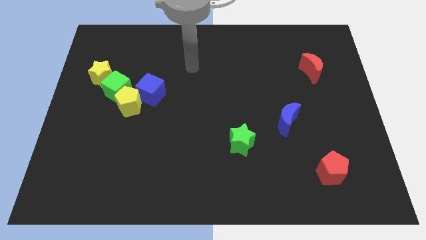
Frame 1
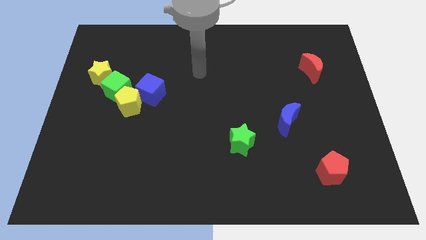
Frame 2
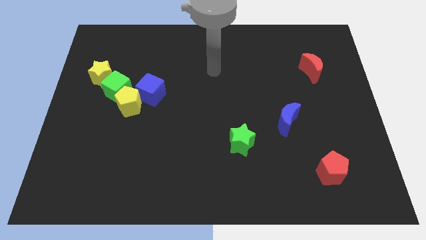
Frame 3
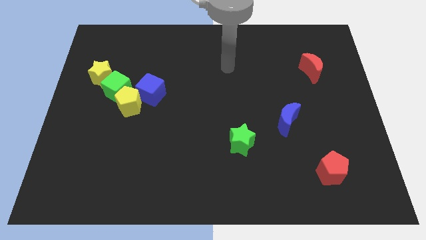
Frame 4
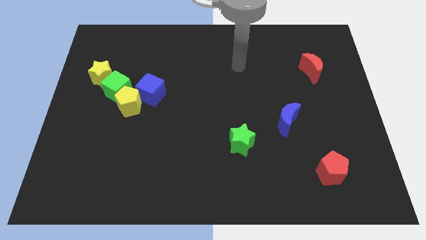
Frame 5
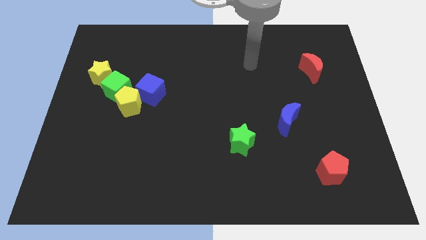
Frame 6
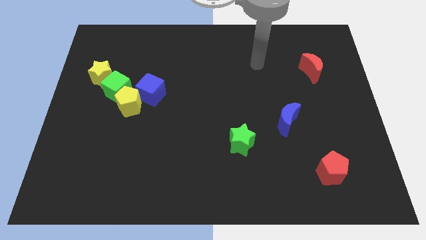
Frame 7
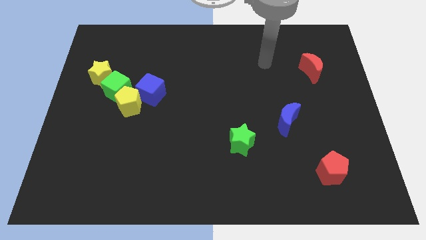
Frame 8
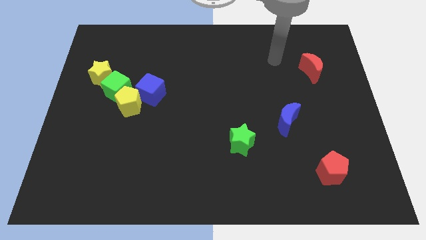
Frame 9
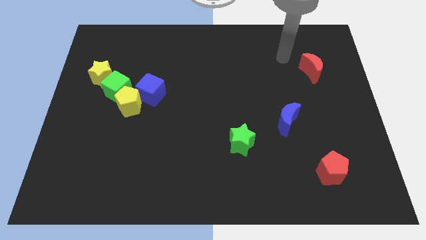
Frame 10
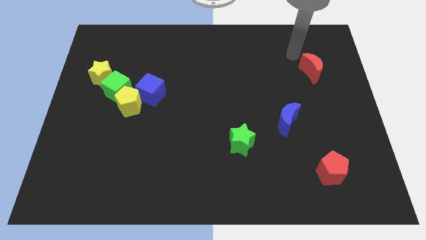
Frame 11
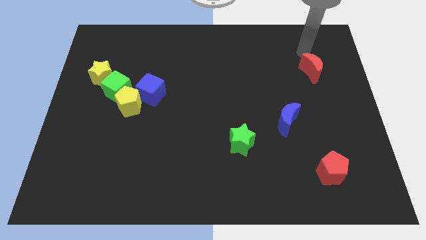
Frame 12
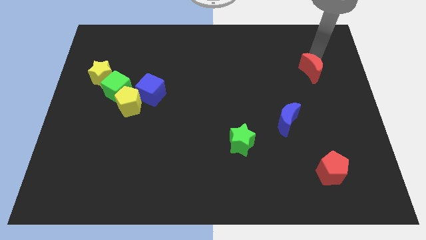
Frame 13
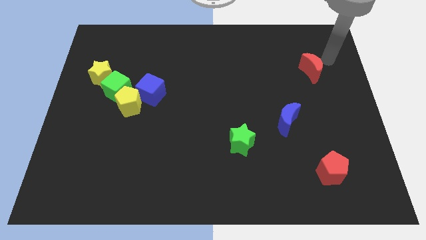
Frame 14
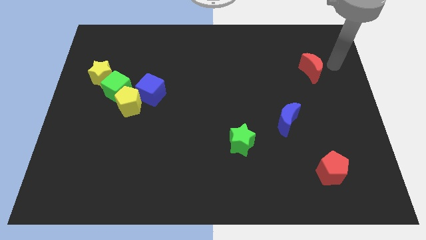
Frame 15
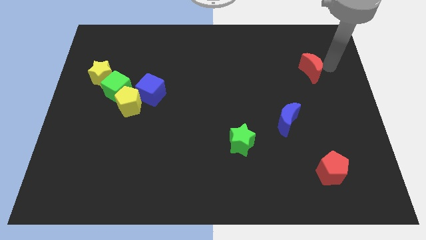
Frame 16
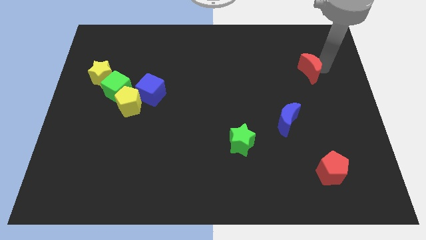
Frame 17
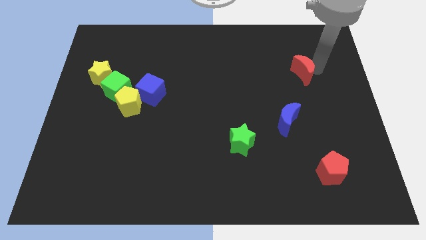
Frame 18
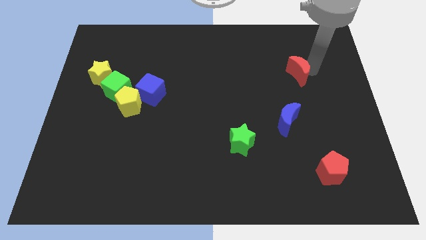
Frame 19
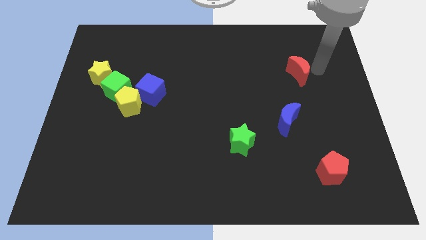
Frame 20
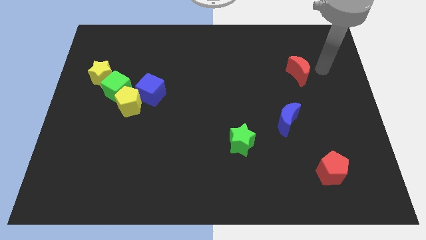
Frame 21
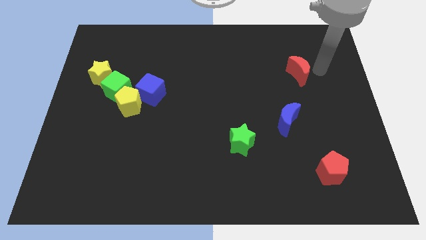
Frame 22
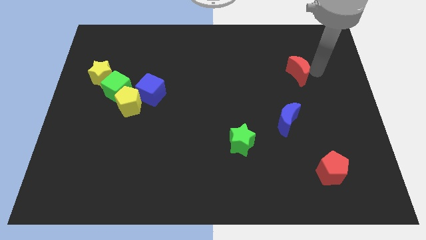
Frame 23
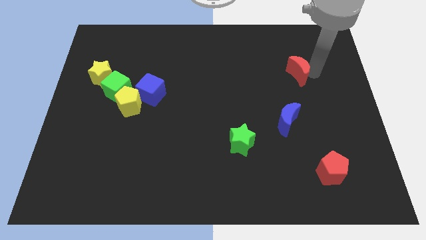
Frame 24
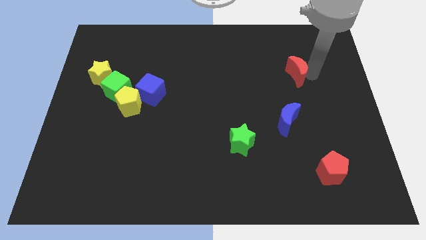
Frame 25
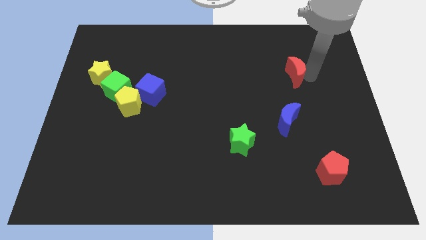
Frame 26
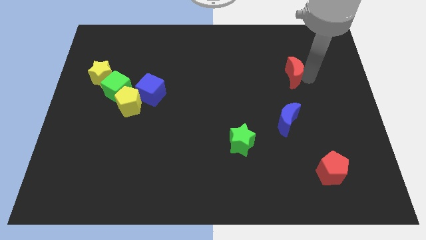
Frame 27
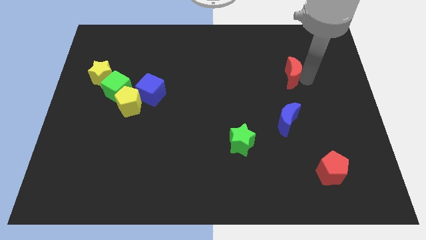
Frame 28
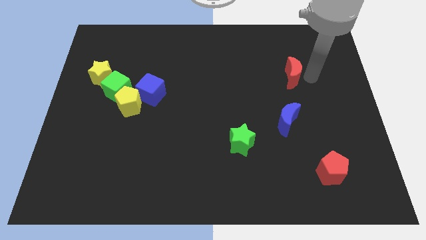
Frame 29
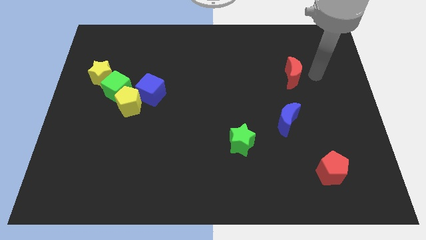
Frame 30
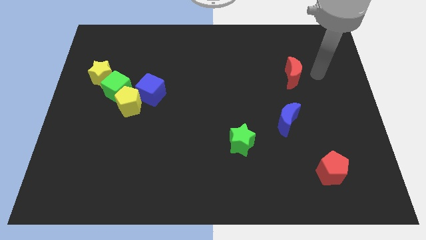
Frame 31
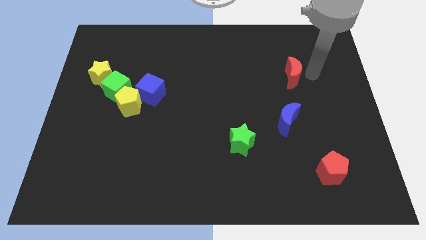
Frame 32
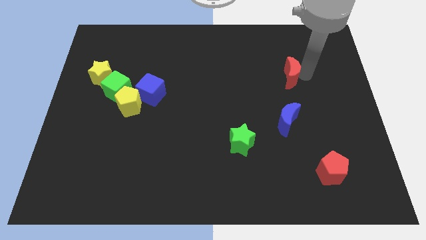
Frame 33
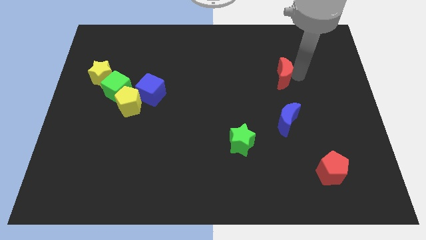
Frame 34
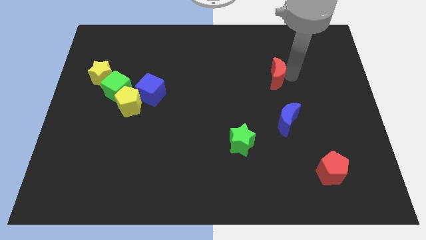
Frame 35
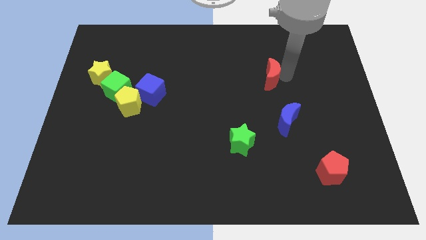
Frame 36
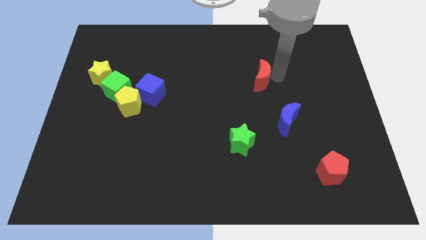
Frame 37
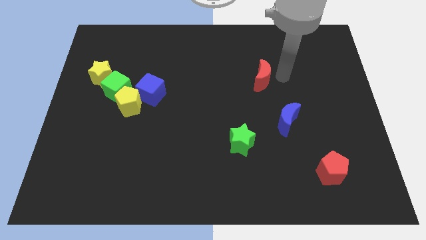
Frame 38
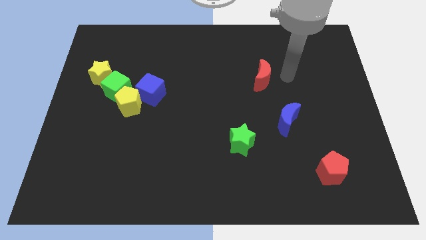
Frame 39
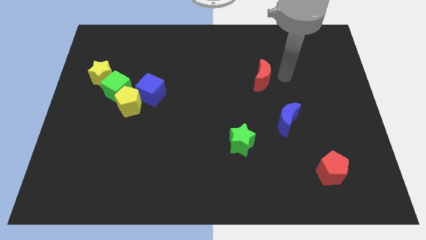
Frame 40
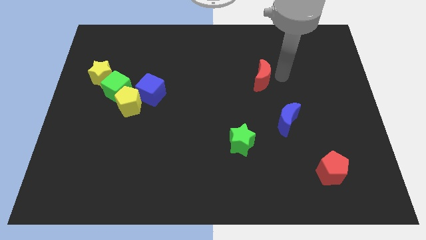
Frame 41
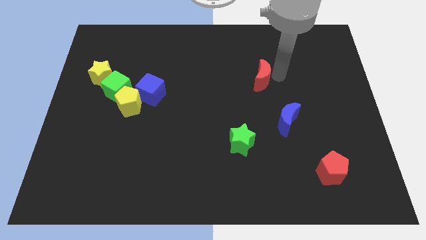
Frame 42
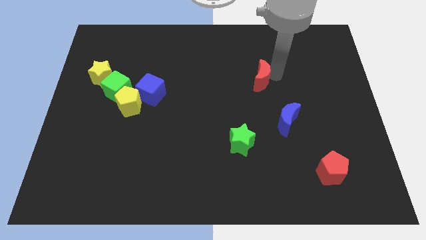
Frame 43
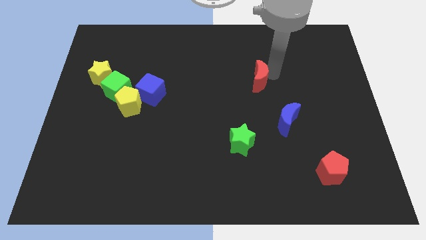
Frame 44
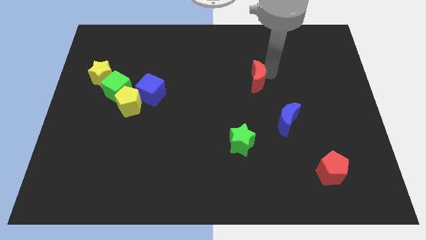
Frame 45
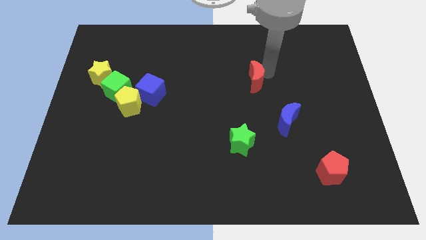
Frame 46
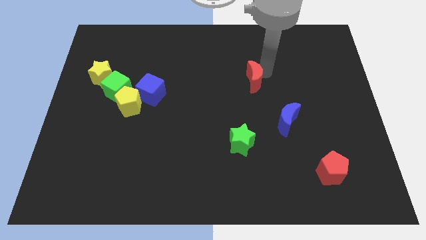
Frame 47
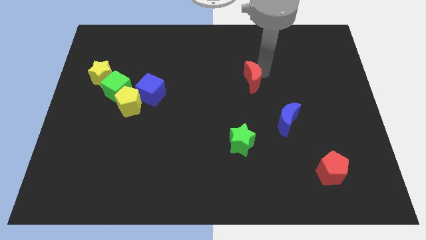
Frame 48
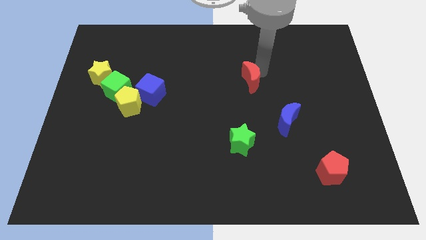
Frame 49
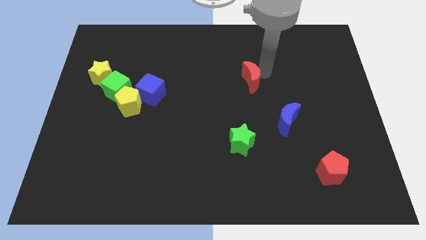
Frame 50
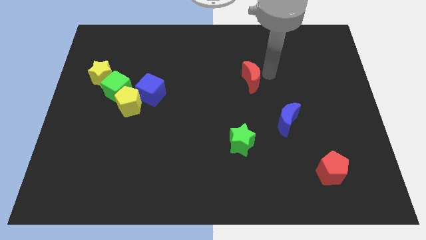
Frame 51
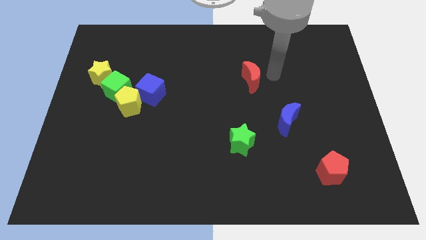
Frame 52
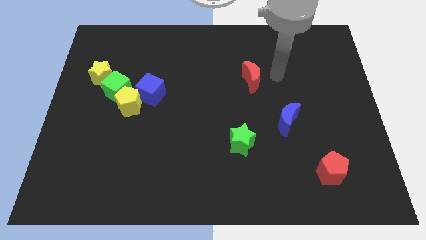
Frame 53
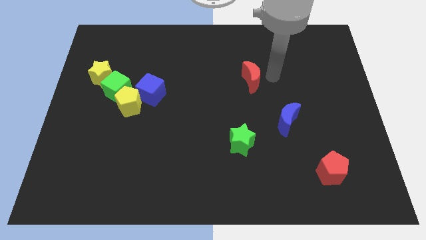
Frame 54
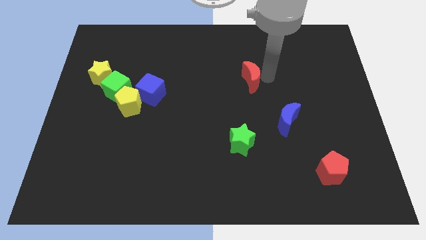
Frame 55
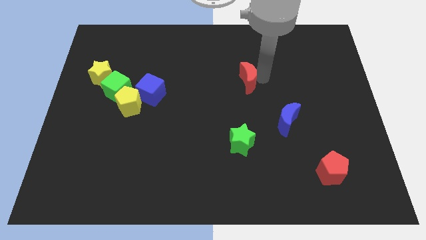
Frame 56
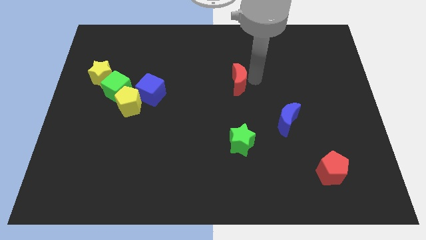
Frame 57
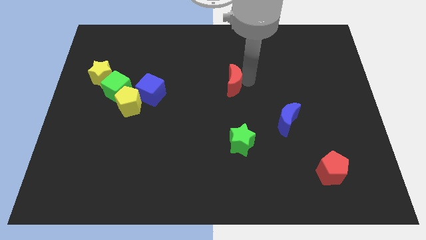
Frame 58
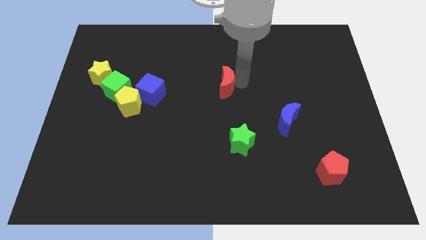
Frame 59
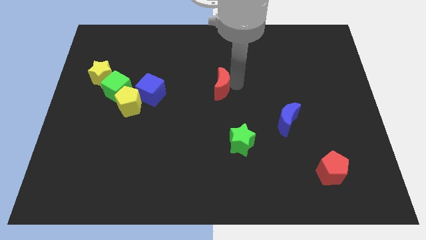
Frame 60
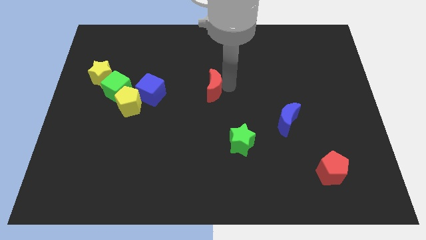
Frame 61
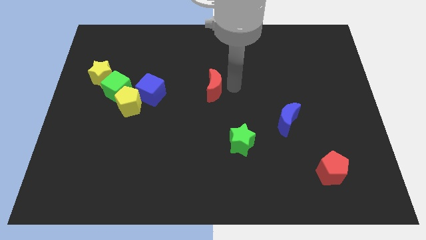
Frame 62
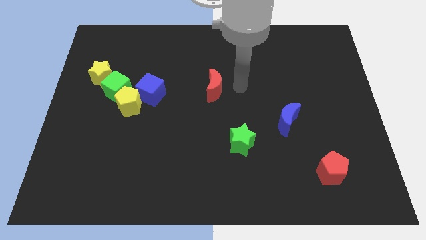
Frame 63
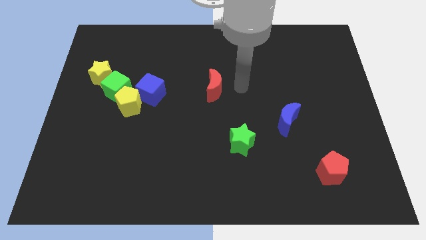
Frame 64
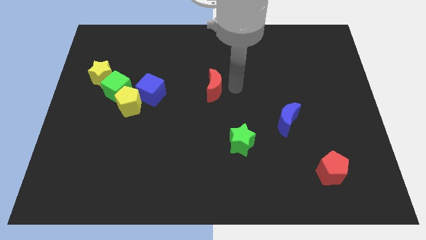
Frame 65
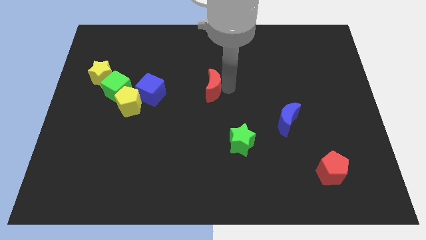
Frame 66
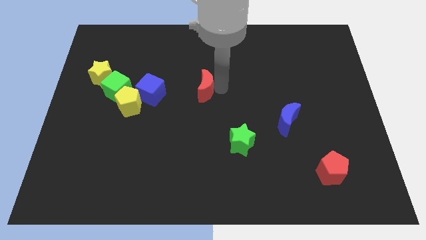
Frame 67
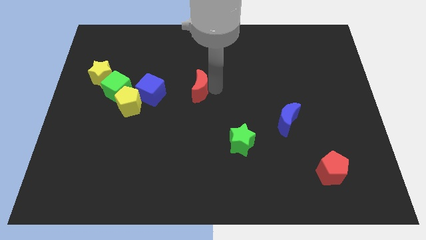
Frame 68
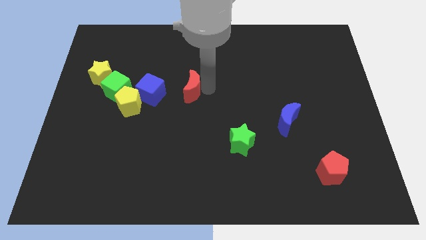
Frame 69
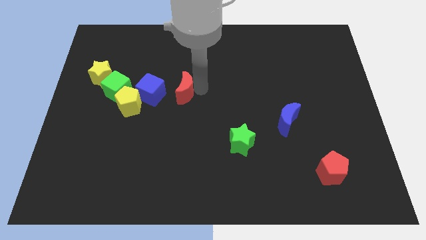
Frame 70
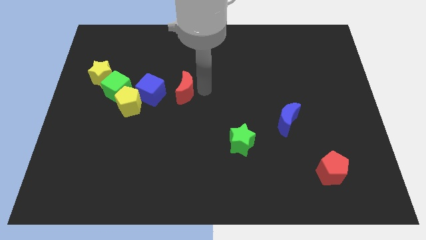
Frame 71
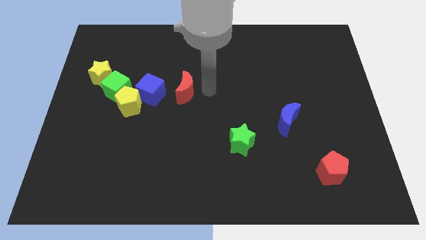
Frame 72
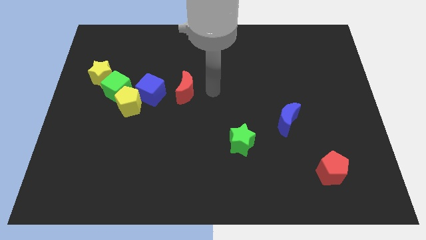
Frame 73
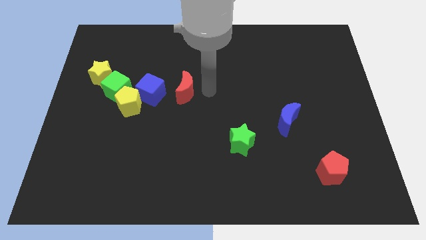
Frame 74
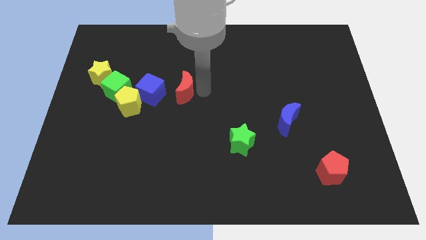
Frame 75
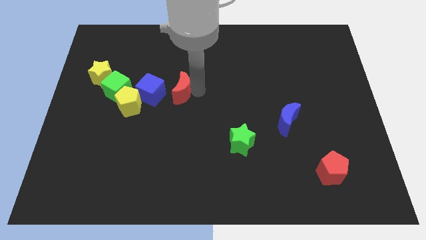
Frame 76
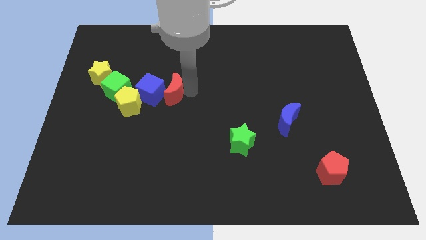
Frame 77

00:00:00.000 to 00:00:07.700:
move the red moon to the blue cube

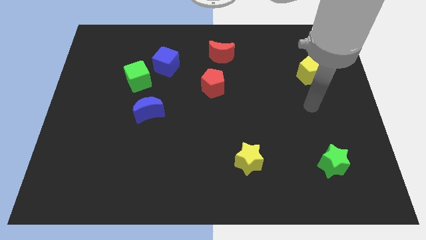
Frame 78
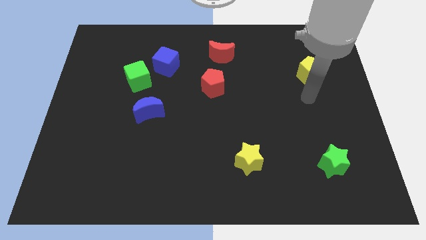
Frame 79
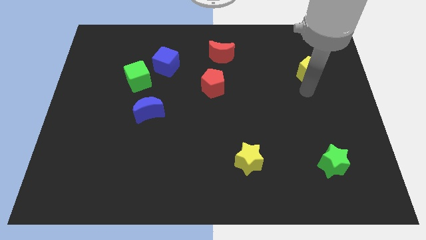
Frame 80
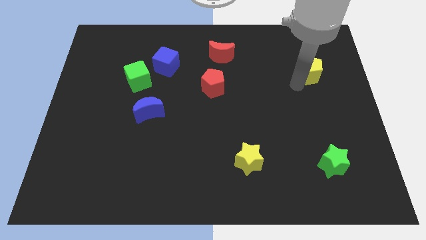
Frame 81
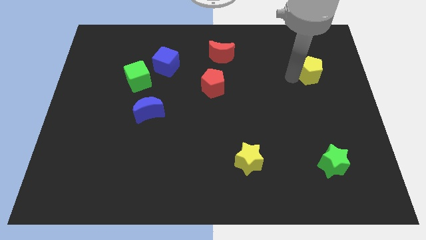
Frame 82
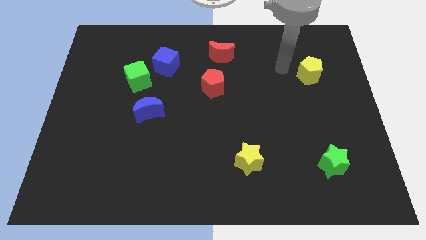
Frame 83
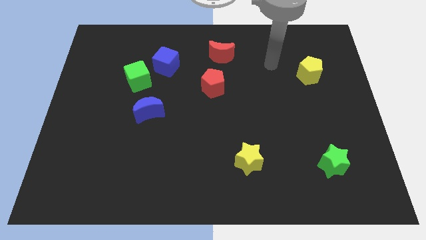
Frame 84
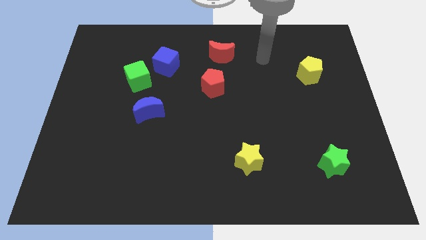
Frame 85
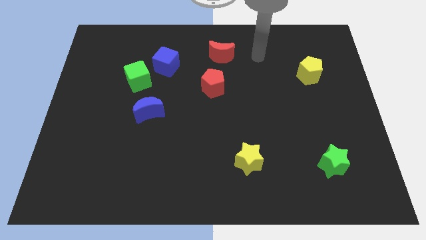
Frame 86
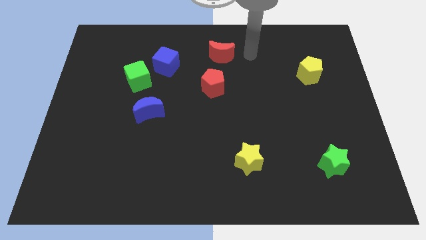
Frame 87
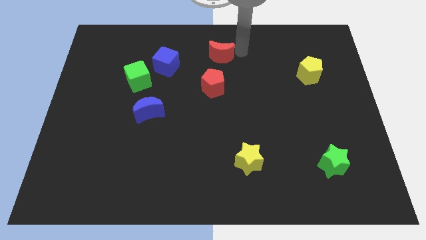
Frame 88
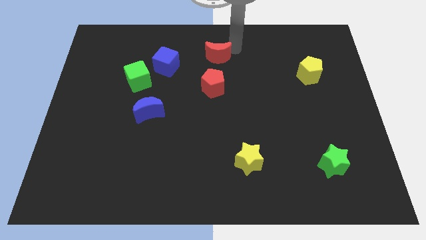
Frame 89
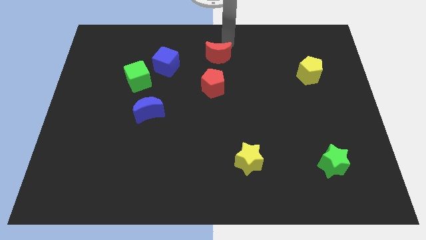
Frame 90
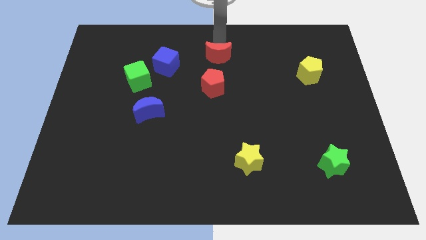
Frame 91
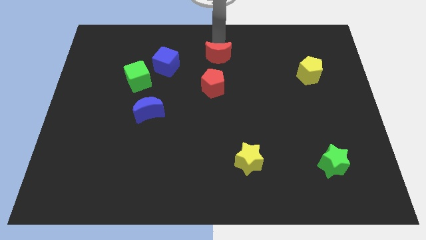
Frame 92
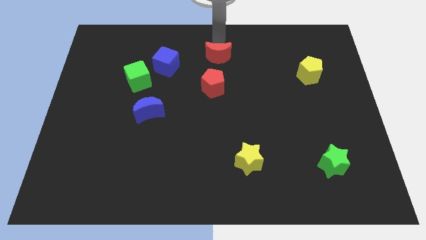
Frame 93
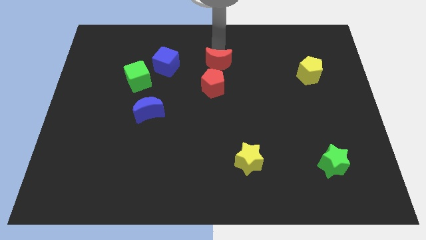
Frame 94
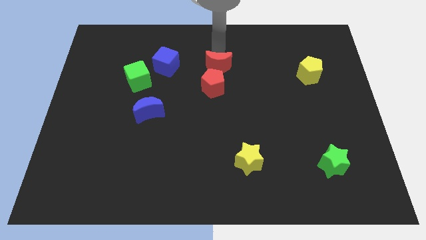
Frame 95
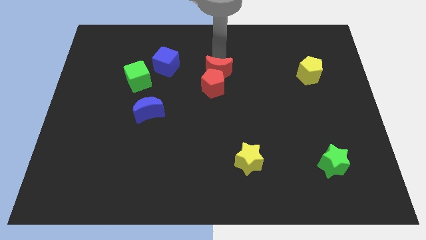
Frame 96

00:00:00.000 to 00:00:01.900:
slide the red moon close to the red pentagon
